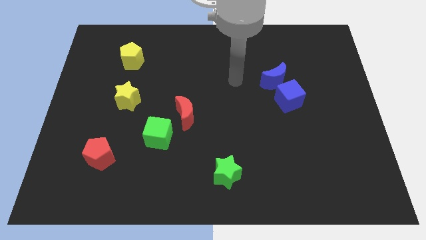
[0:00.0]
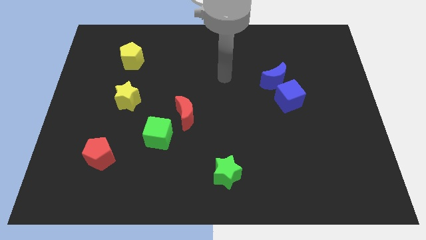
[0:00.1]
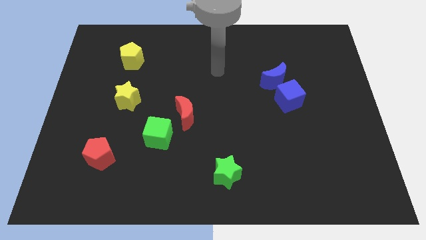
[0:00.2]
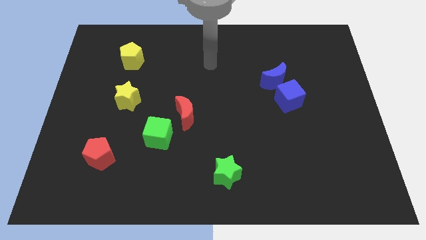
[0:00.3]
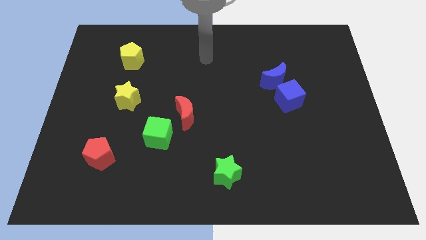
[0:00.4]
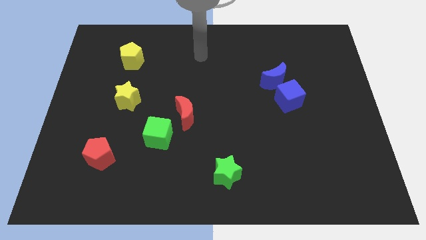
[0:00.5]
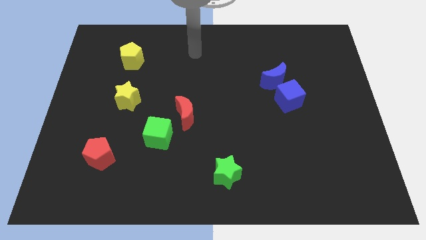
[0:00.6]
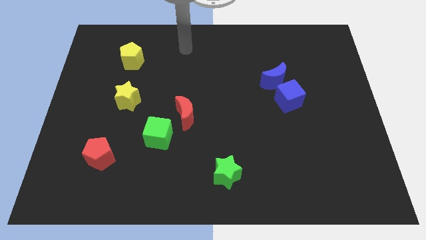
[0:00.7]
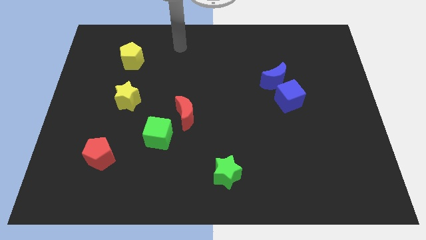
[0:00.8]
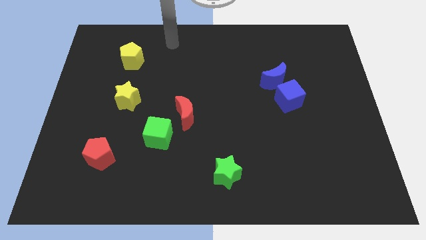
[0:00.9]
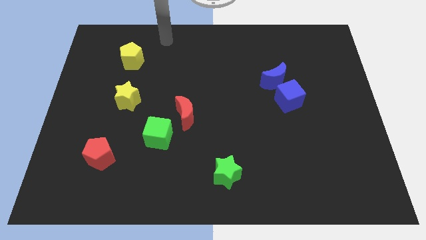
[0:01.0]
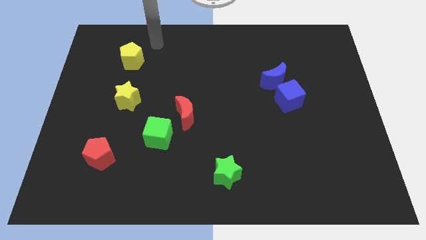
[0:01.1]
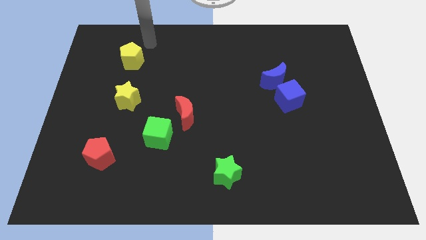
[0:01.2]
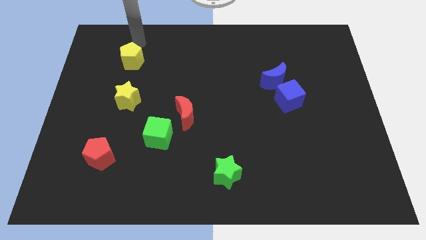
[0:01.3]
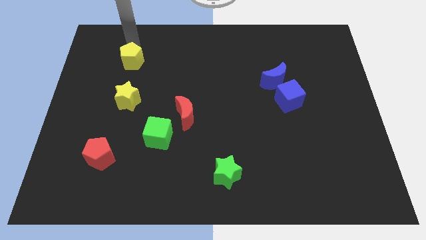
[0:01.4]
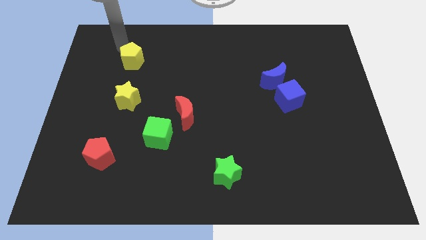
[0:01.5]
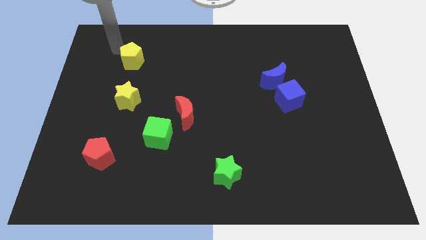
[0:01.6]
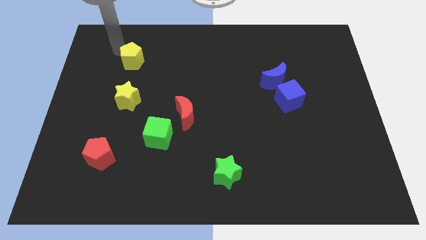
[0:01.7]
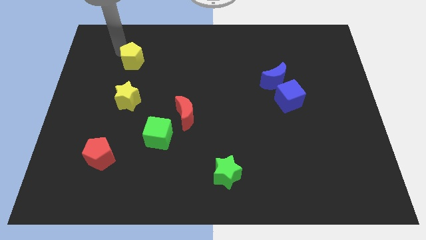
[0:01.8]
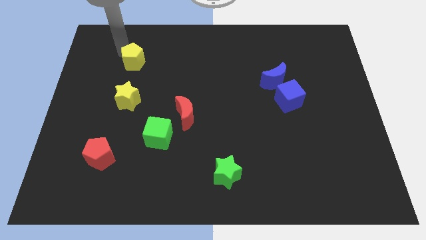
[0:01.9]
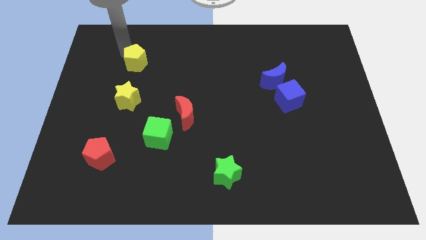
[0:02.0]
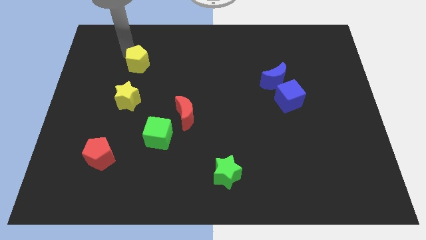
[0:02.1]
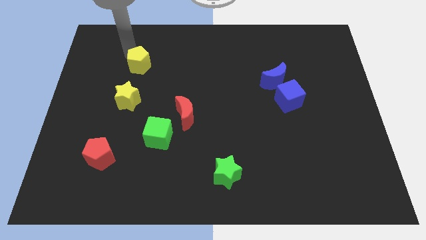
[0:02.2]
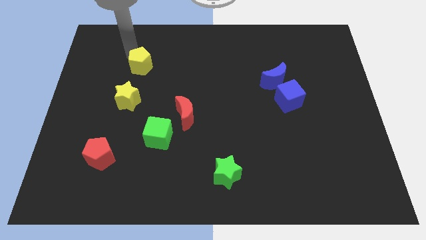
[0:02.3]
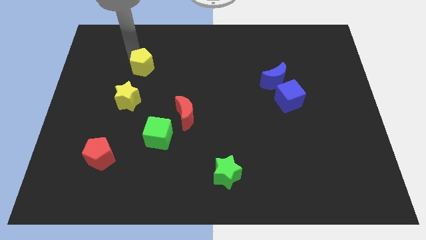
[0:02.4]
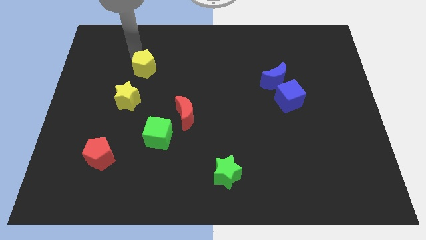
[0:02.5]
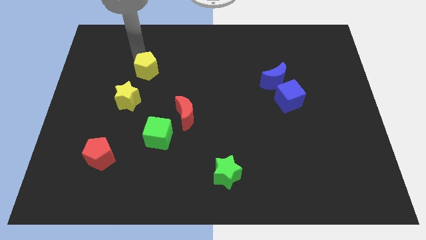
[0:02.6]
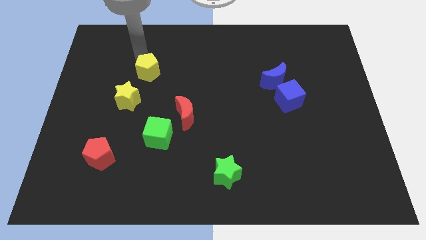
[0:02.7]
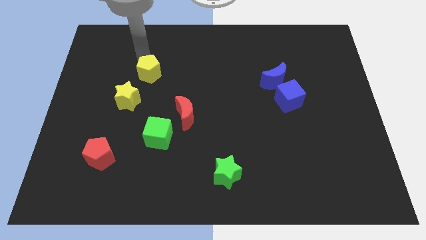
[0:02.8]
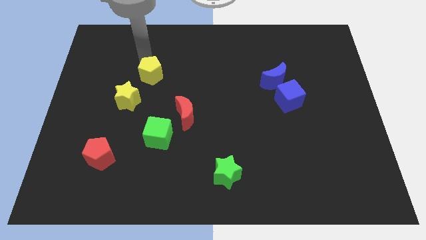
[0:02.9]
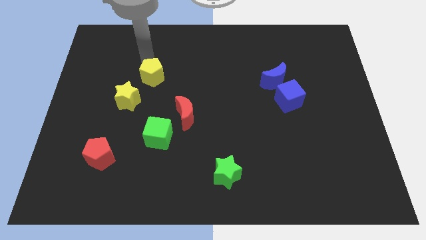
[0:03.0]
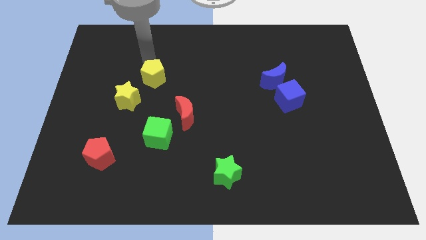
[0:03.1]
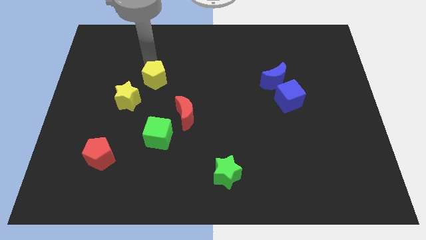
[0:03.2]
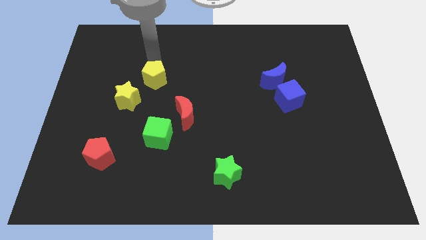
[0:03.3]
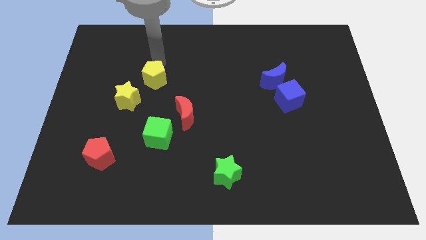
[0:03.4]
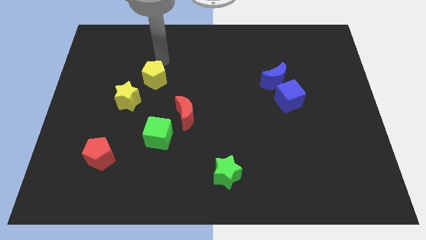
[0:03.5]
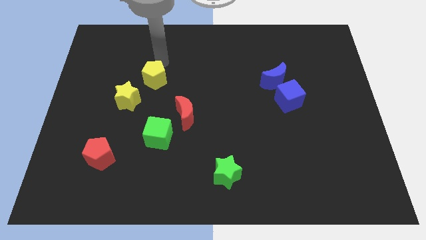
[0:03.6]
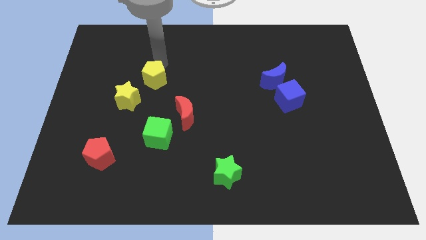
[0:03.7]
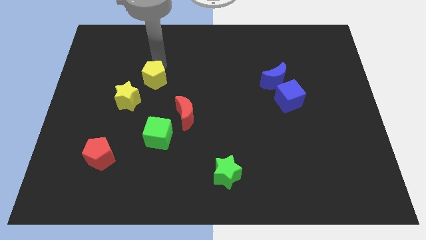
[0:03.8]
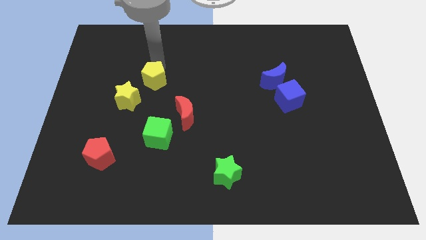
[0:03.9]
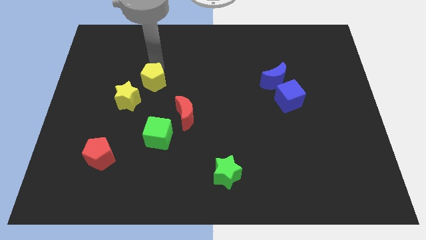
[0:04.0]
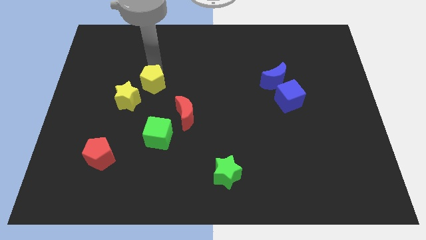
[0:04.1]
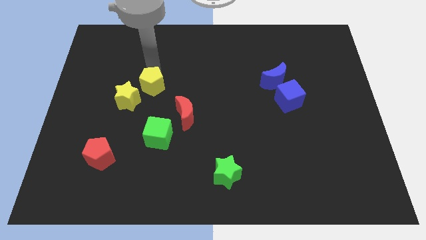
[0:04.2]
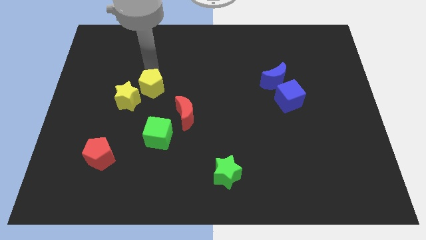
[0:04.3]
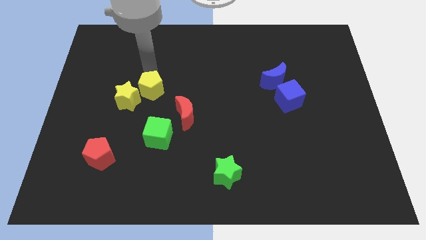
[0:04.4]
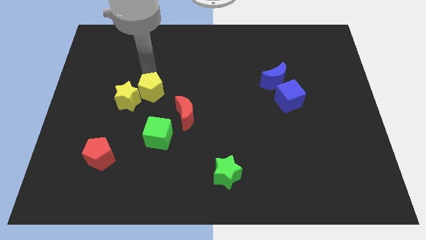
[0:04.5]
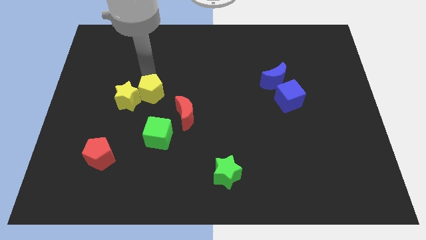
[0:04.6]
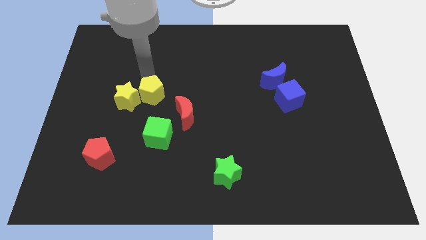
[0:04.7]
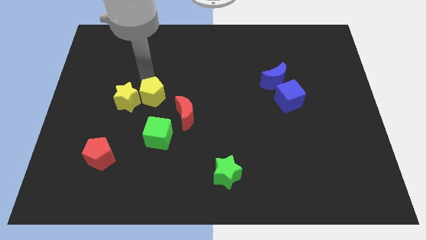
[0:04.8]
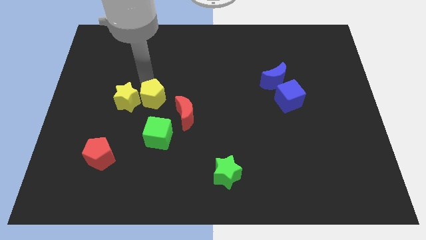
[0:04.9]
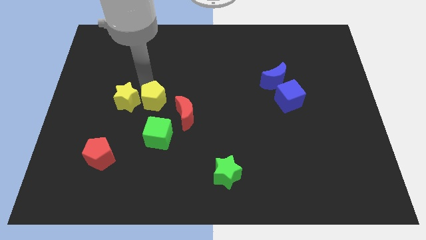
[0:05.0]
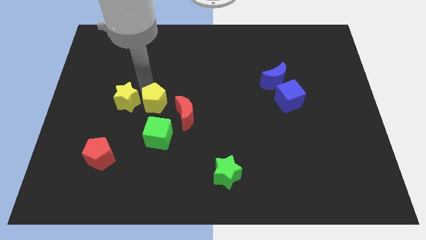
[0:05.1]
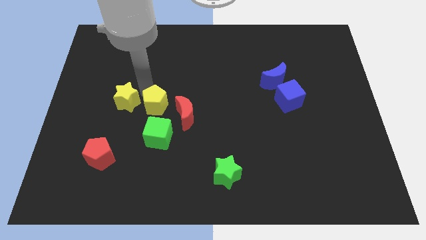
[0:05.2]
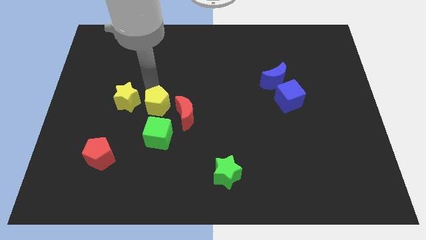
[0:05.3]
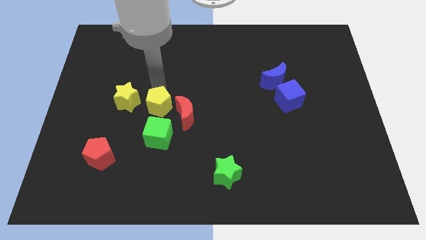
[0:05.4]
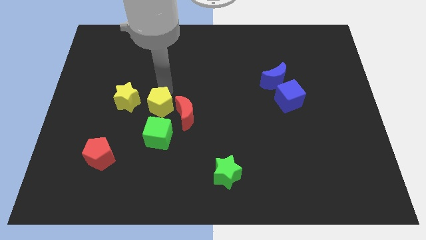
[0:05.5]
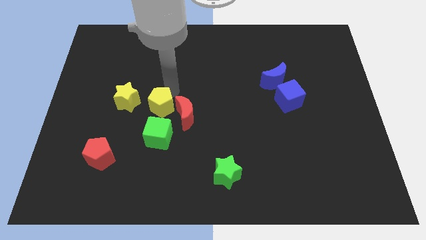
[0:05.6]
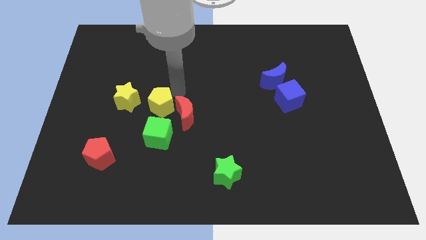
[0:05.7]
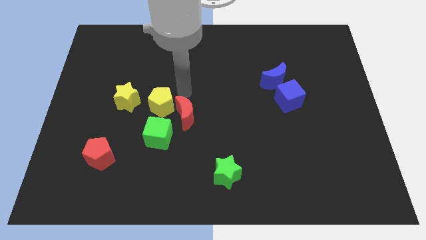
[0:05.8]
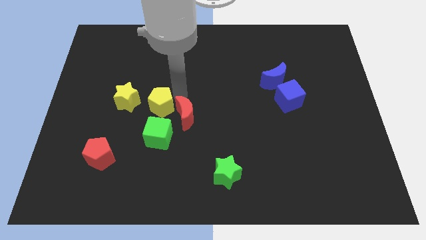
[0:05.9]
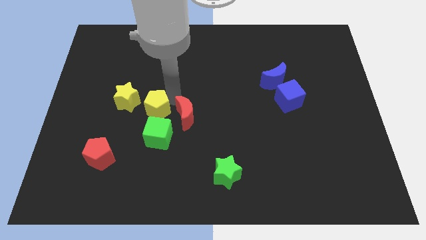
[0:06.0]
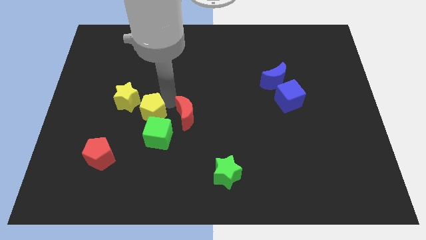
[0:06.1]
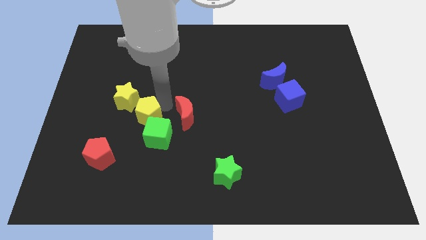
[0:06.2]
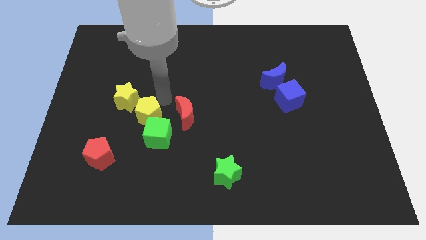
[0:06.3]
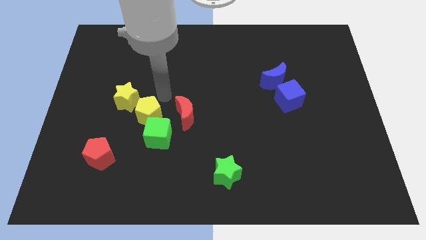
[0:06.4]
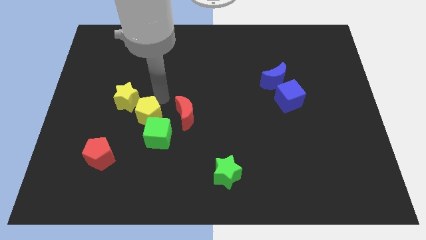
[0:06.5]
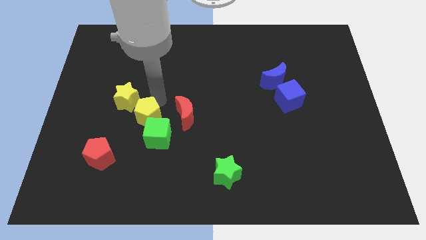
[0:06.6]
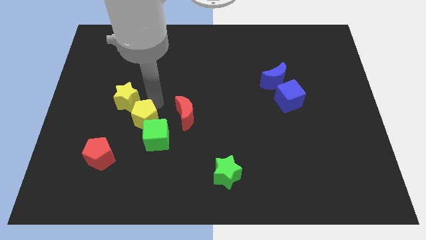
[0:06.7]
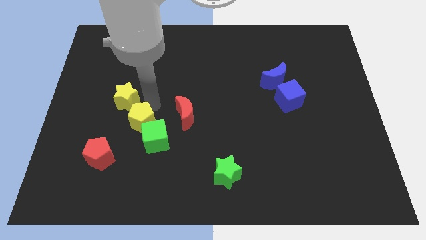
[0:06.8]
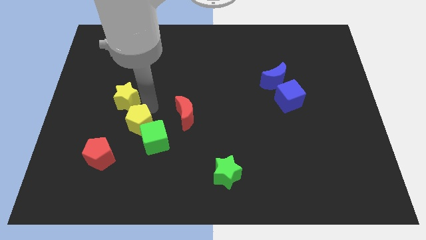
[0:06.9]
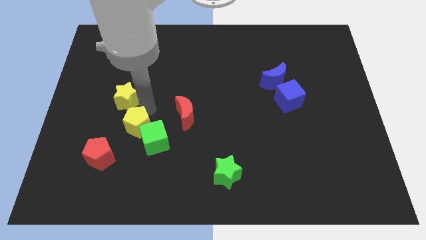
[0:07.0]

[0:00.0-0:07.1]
move the yellow pentagon down

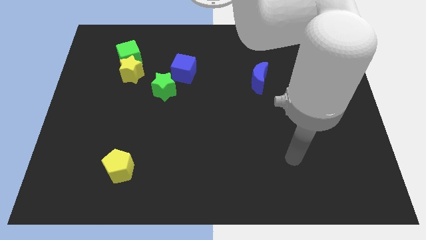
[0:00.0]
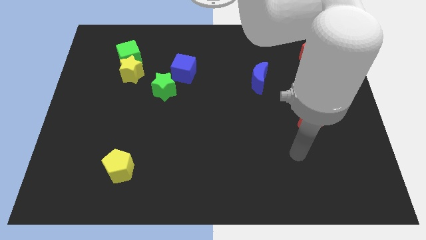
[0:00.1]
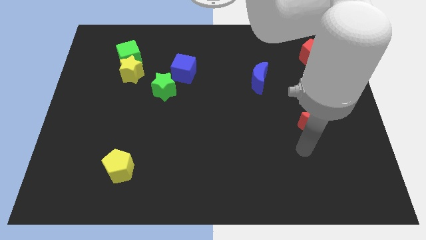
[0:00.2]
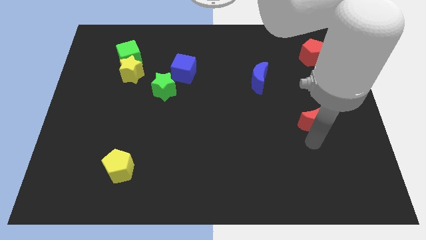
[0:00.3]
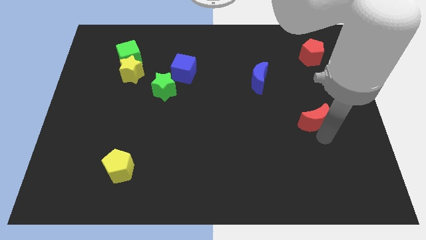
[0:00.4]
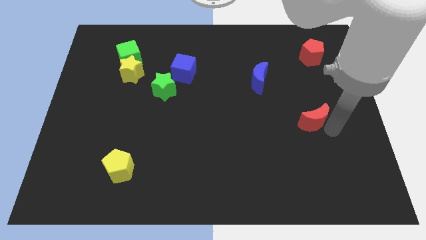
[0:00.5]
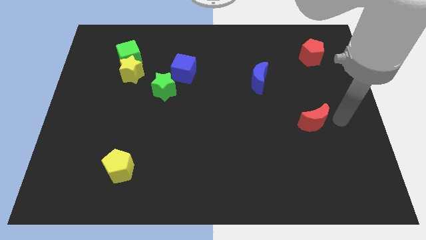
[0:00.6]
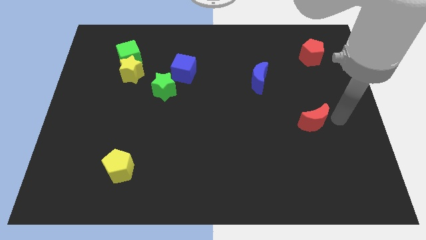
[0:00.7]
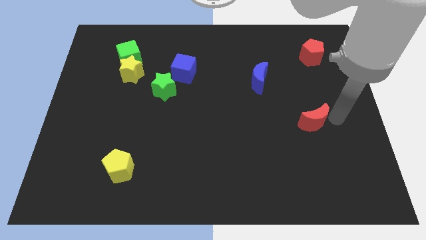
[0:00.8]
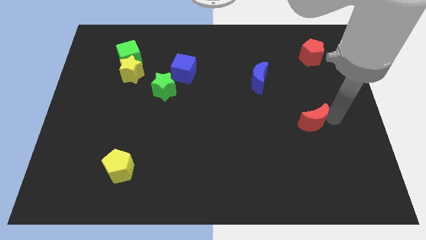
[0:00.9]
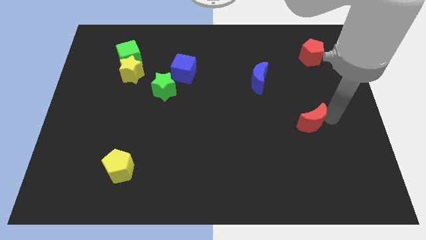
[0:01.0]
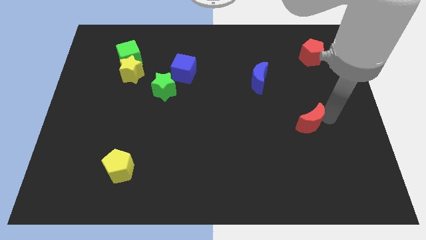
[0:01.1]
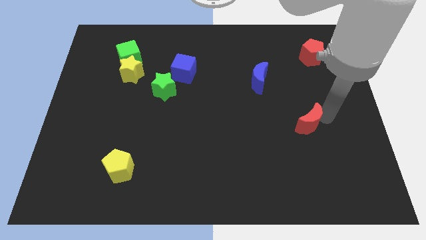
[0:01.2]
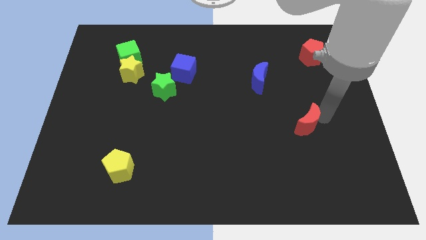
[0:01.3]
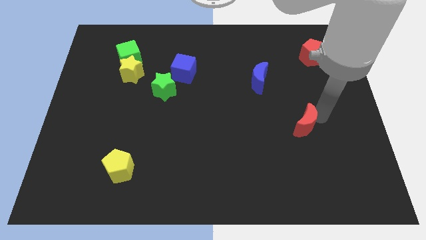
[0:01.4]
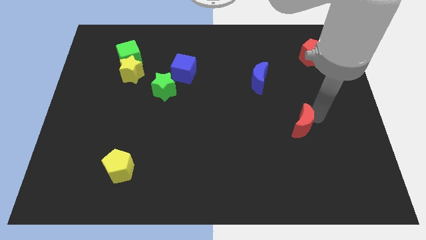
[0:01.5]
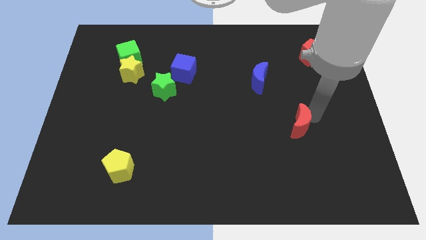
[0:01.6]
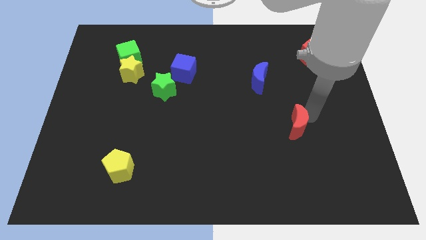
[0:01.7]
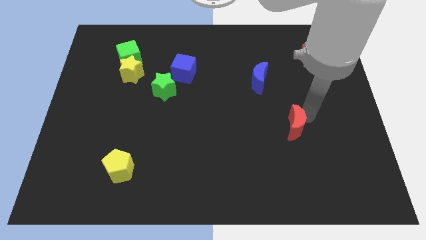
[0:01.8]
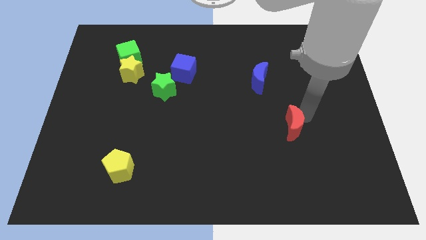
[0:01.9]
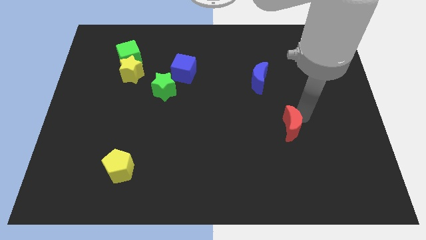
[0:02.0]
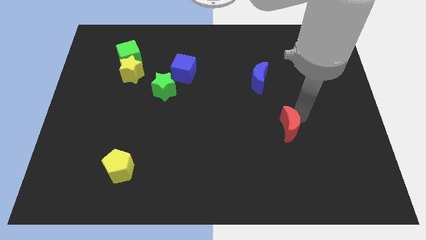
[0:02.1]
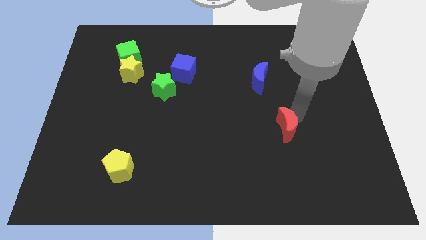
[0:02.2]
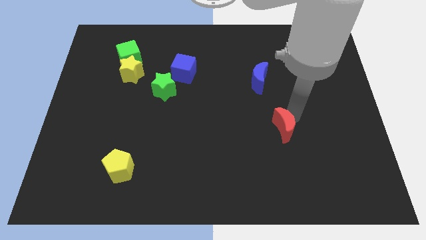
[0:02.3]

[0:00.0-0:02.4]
slightly slide the red moon to the left
